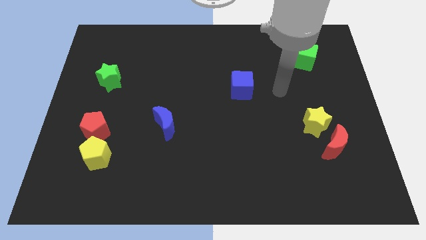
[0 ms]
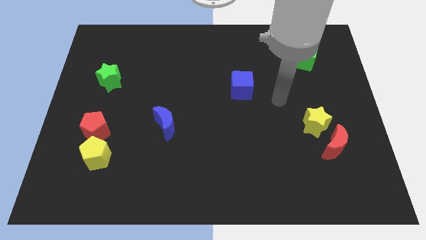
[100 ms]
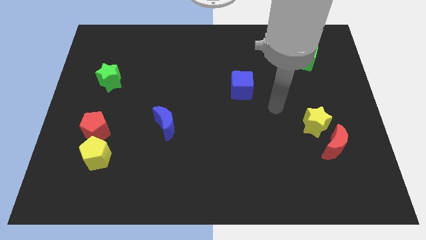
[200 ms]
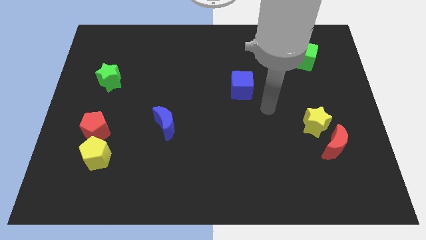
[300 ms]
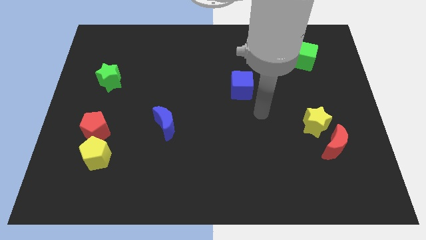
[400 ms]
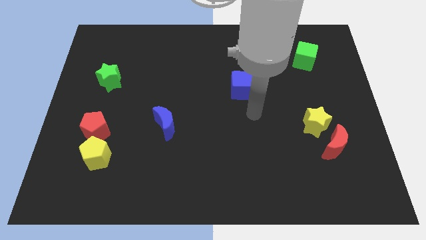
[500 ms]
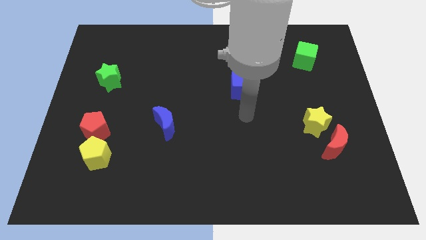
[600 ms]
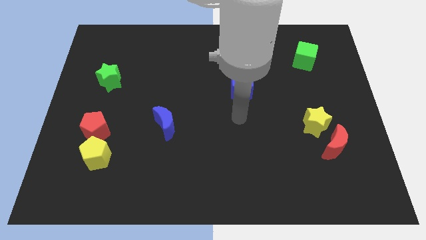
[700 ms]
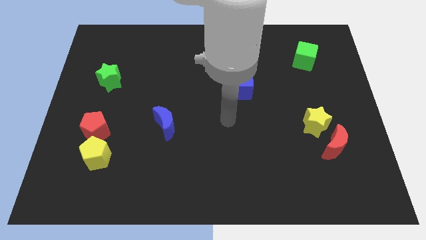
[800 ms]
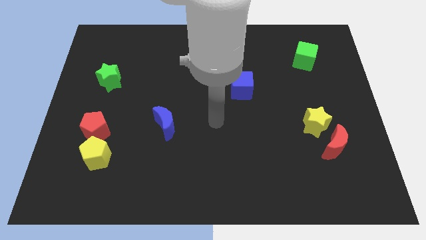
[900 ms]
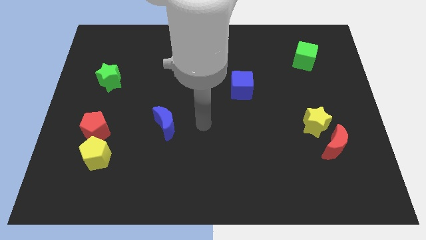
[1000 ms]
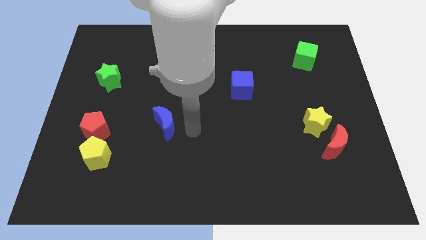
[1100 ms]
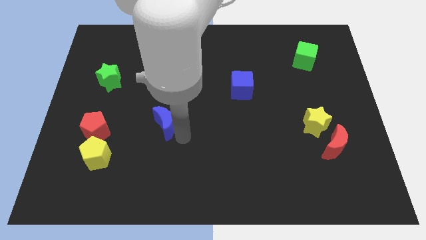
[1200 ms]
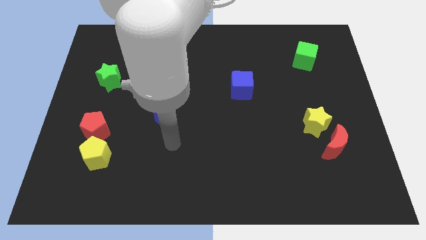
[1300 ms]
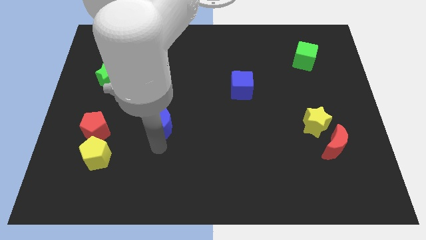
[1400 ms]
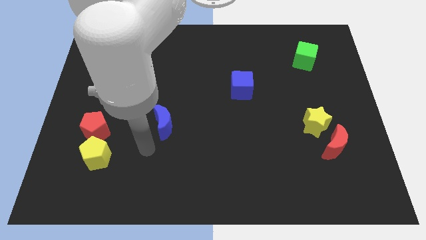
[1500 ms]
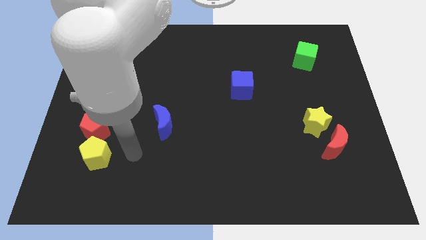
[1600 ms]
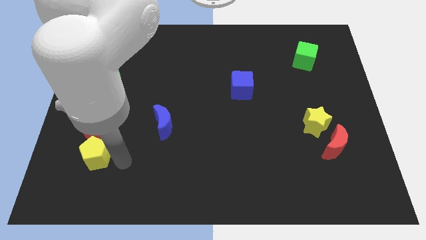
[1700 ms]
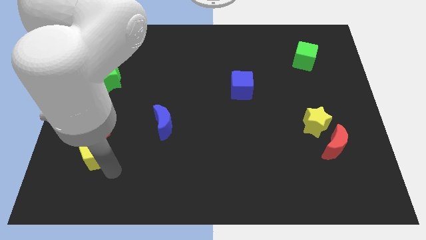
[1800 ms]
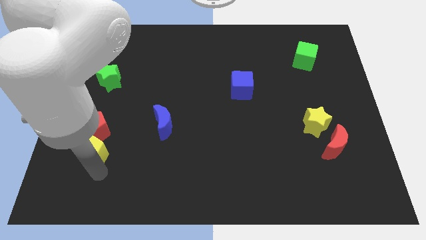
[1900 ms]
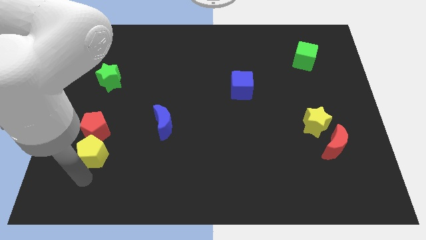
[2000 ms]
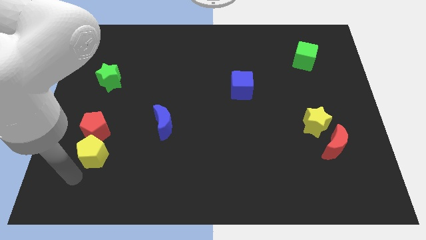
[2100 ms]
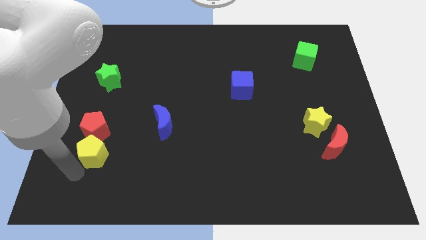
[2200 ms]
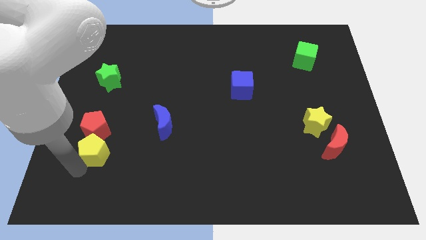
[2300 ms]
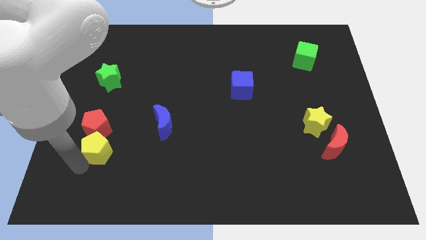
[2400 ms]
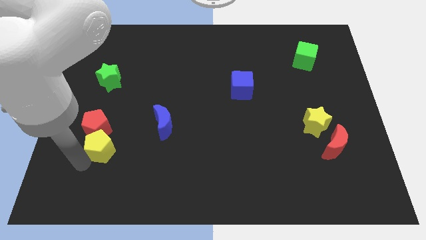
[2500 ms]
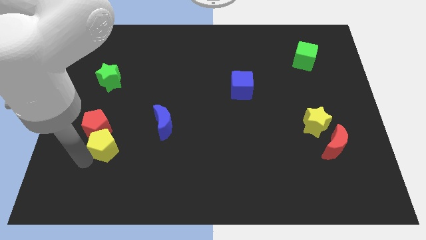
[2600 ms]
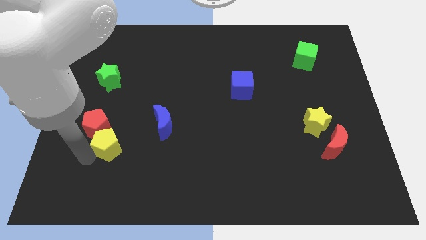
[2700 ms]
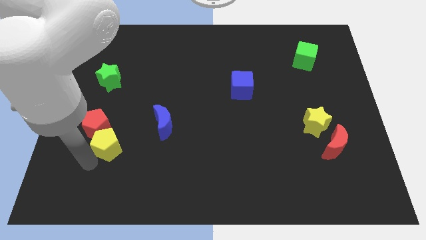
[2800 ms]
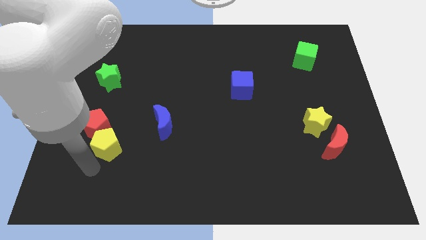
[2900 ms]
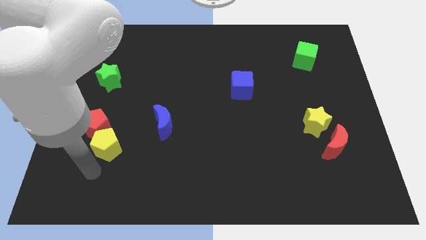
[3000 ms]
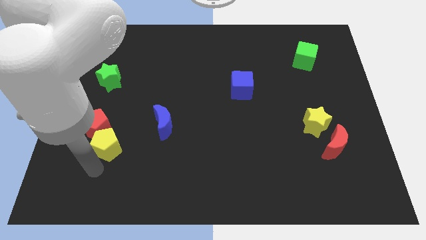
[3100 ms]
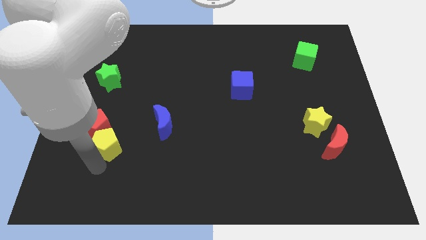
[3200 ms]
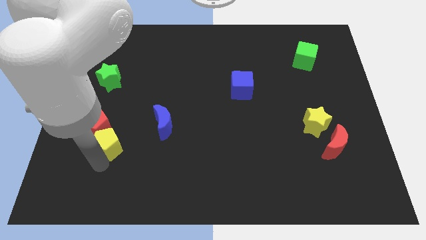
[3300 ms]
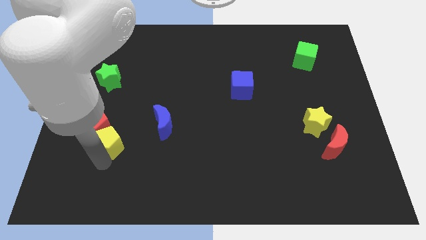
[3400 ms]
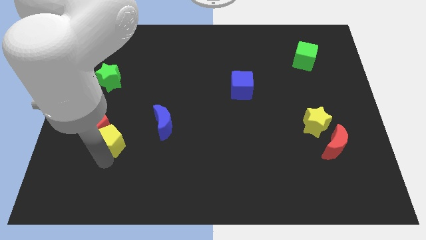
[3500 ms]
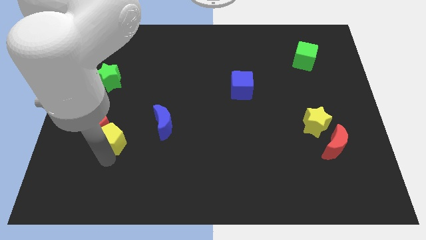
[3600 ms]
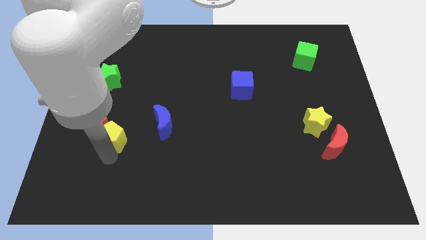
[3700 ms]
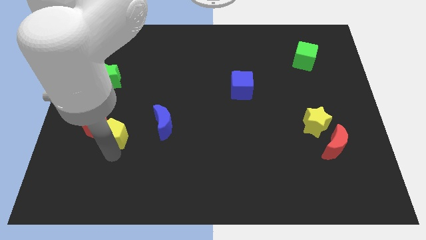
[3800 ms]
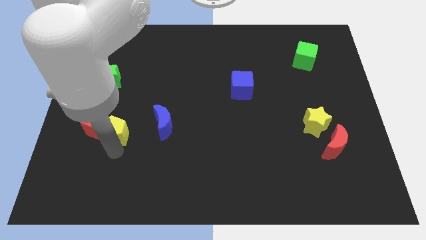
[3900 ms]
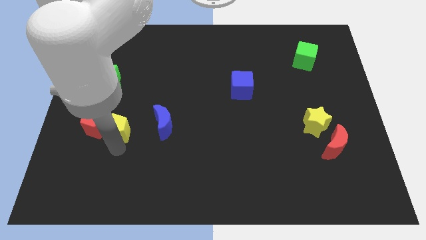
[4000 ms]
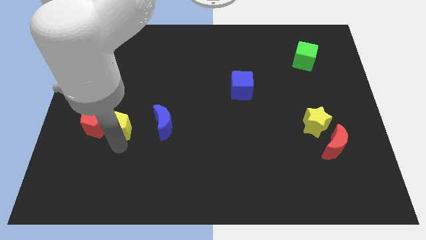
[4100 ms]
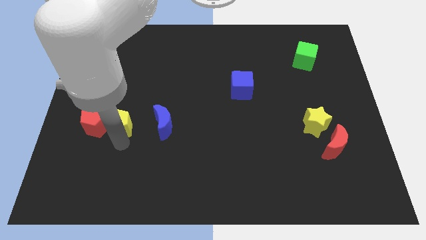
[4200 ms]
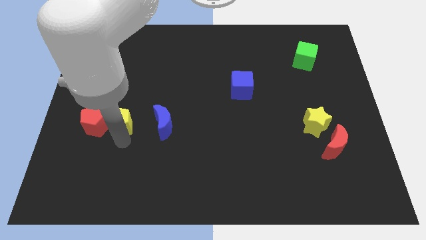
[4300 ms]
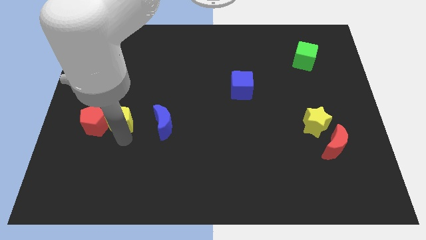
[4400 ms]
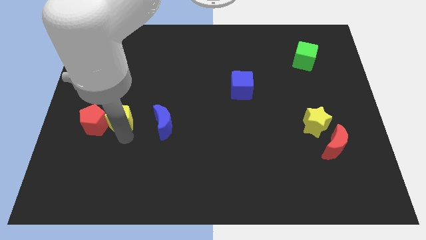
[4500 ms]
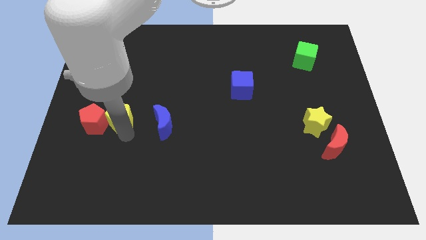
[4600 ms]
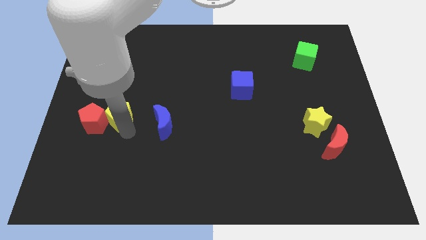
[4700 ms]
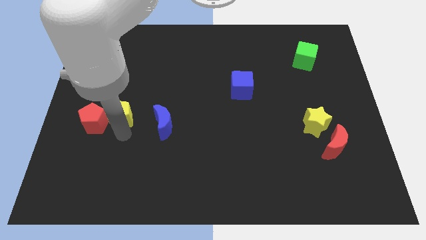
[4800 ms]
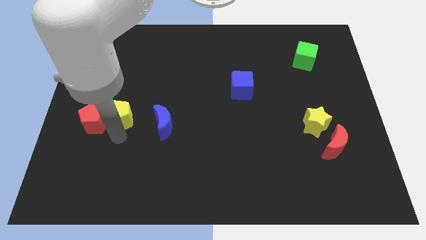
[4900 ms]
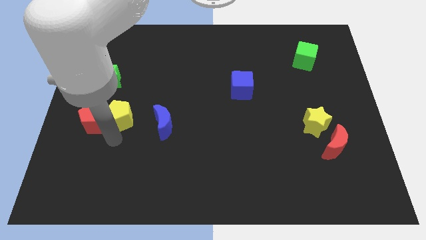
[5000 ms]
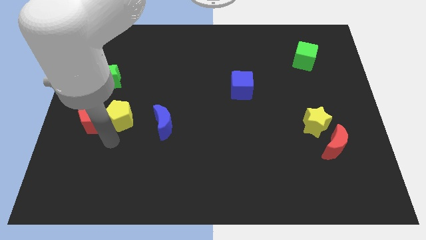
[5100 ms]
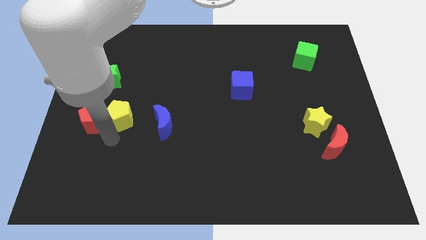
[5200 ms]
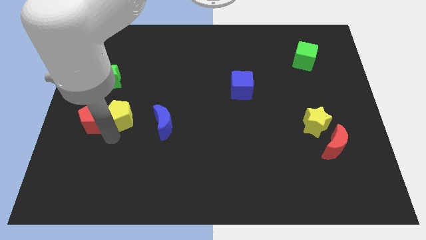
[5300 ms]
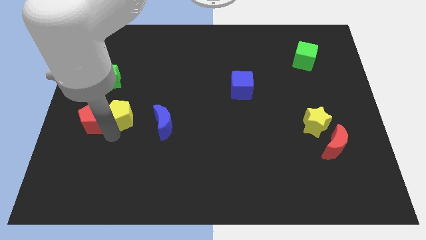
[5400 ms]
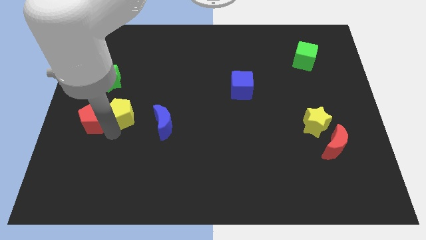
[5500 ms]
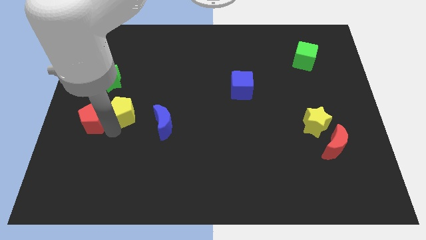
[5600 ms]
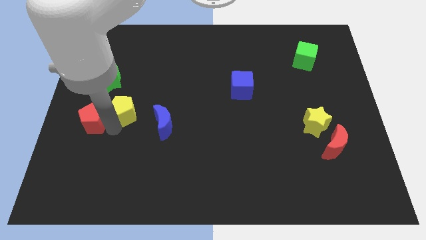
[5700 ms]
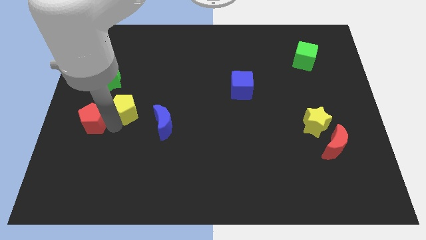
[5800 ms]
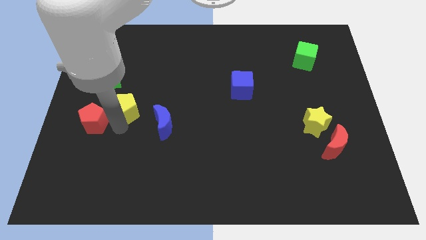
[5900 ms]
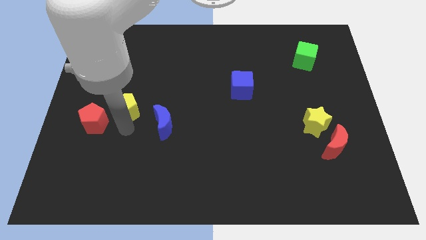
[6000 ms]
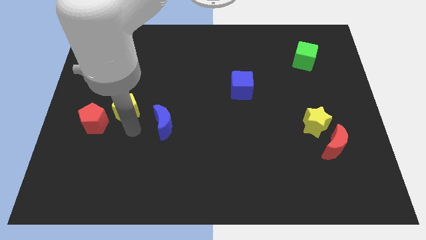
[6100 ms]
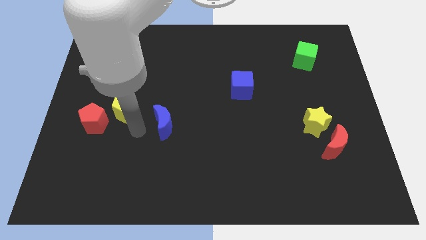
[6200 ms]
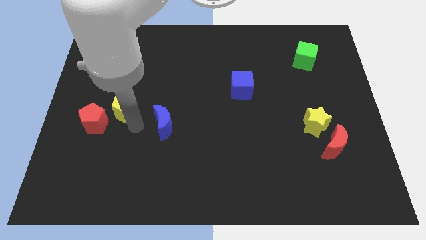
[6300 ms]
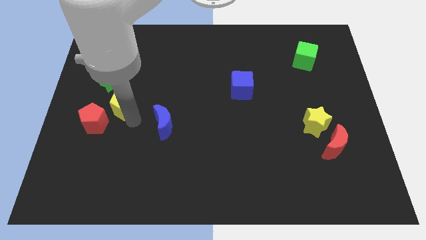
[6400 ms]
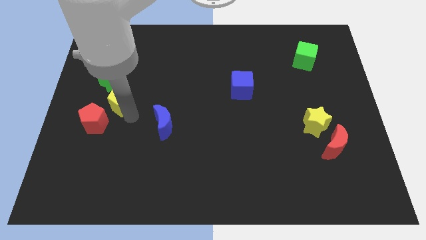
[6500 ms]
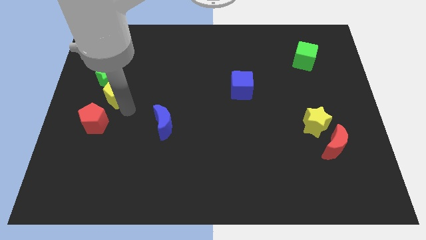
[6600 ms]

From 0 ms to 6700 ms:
push the yellow pentagon towards the green star

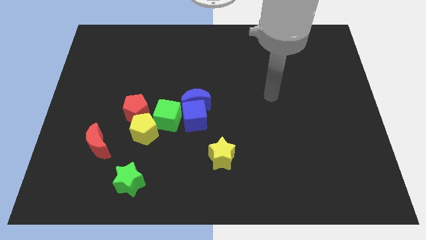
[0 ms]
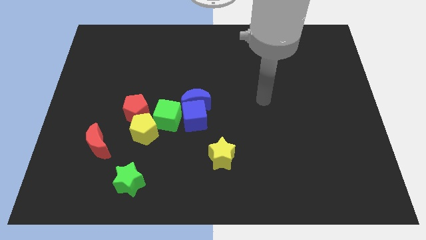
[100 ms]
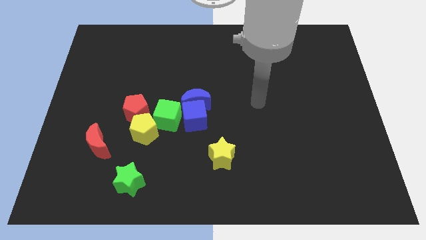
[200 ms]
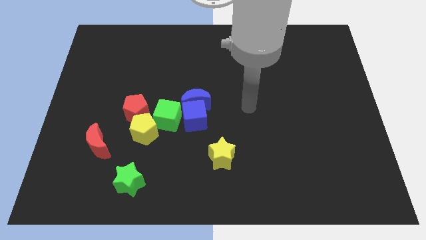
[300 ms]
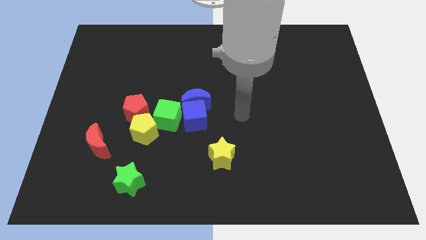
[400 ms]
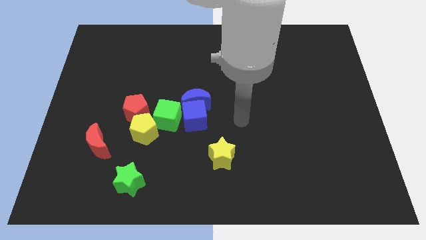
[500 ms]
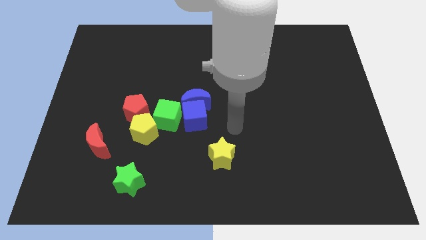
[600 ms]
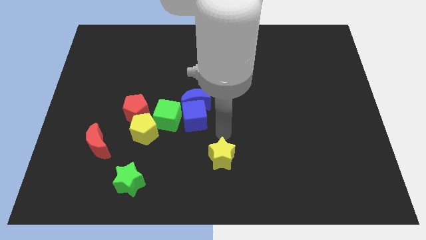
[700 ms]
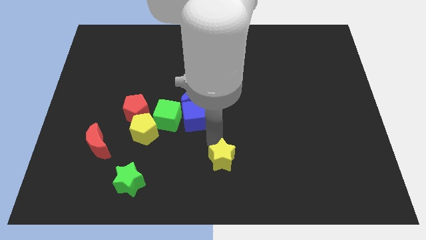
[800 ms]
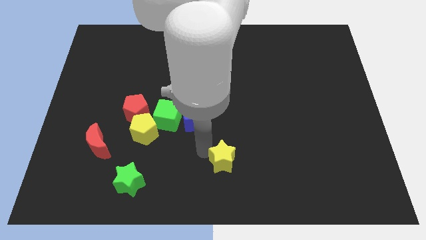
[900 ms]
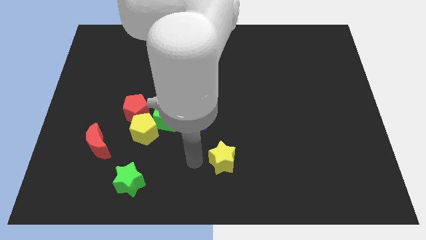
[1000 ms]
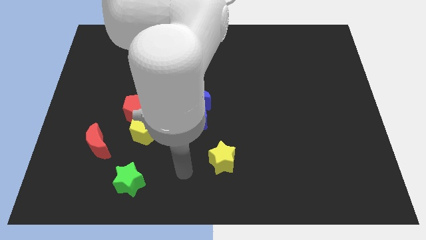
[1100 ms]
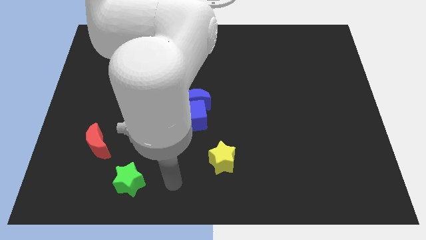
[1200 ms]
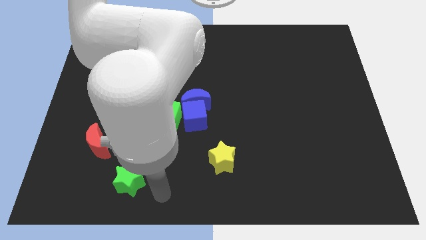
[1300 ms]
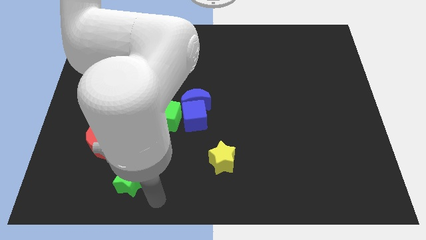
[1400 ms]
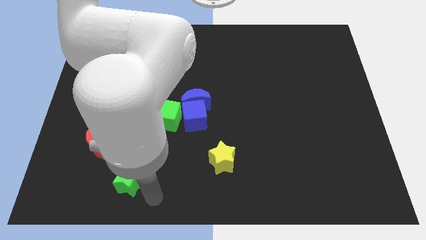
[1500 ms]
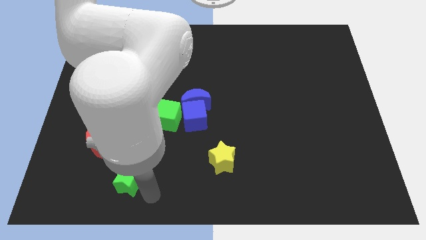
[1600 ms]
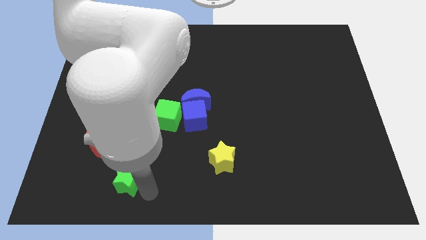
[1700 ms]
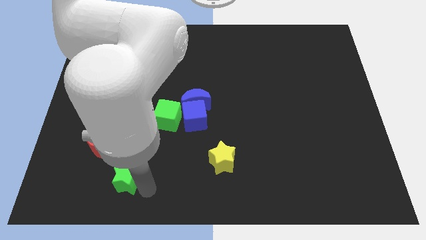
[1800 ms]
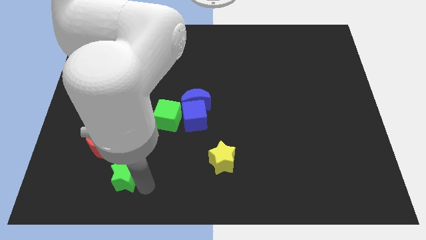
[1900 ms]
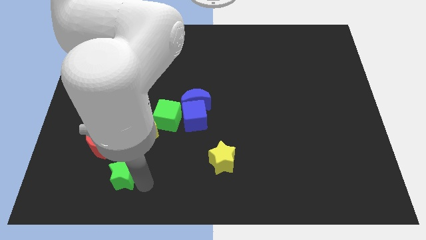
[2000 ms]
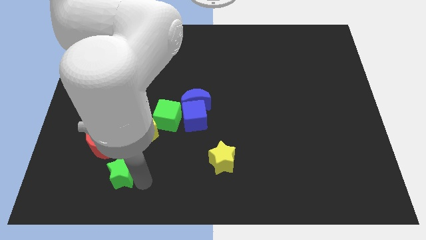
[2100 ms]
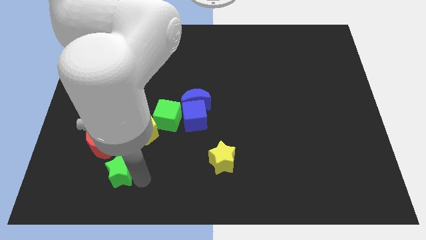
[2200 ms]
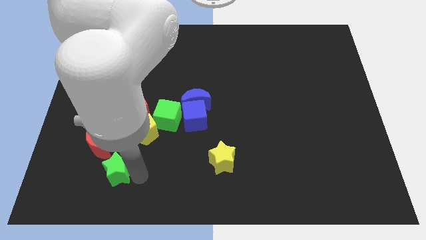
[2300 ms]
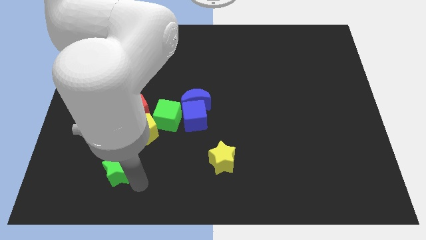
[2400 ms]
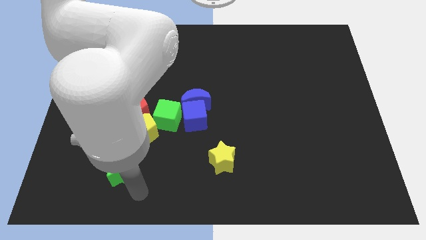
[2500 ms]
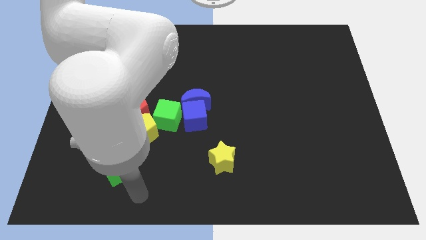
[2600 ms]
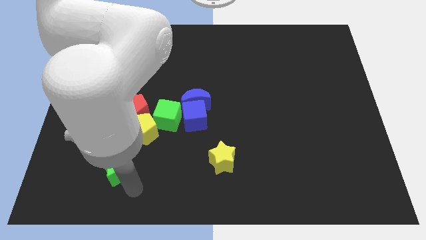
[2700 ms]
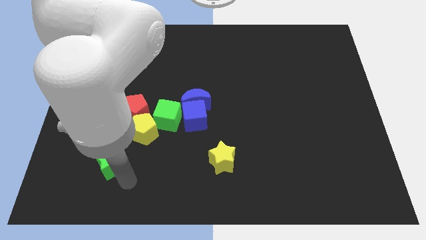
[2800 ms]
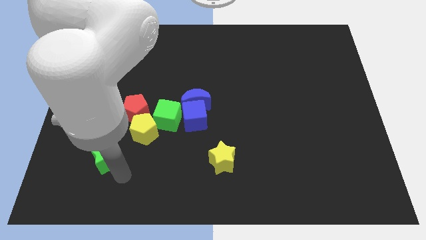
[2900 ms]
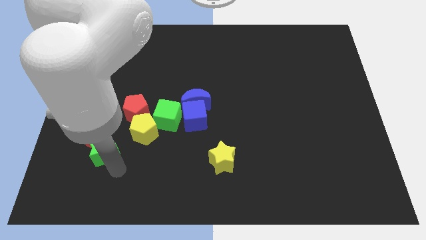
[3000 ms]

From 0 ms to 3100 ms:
put the green star next to the red moon
